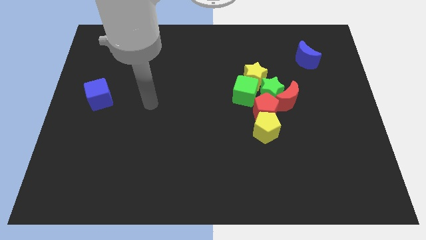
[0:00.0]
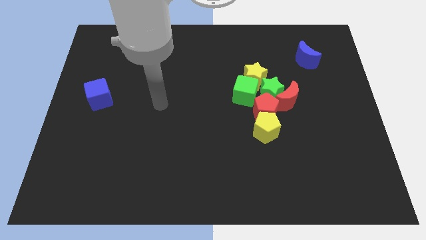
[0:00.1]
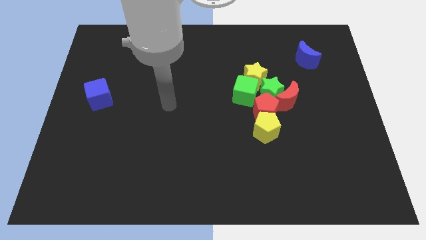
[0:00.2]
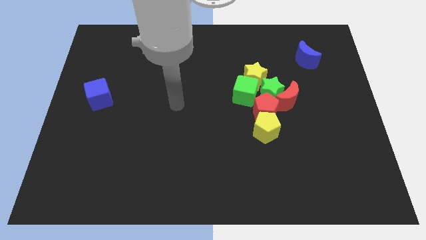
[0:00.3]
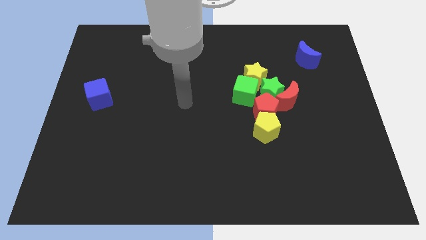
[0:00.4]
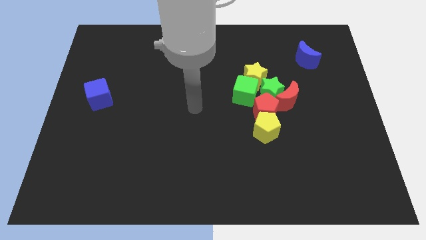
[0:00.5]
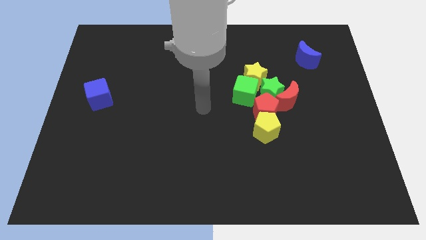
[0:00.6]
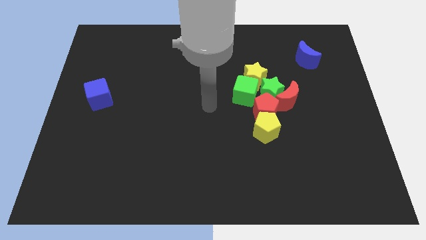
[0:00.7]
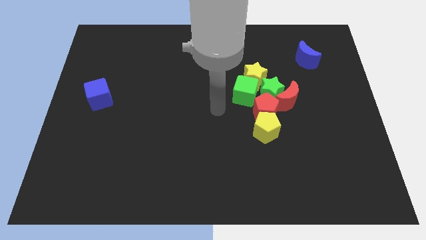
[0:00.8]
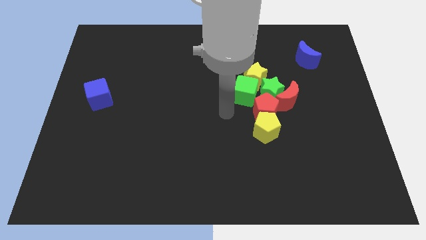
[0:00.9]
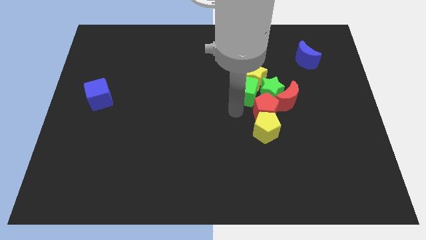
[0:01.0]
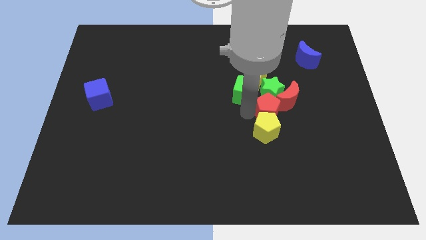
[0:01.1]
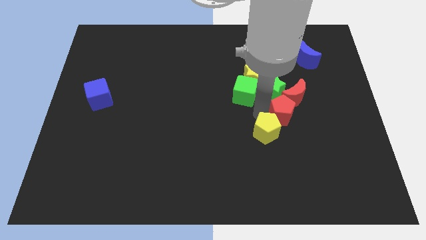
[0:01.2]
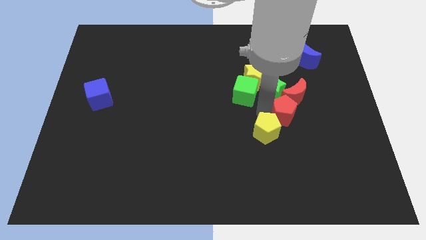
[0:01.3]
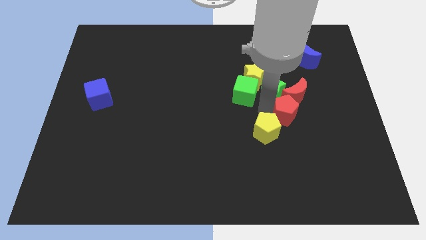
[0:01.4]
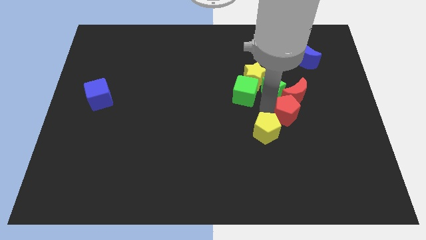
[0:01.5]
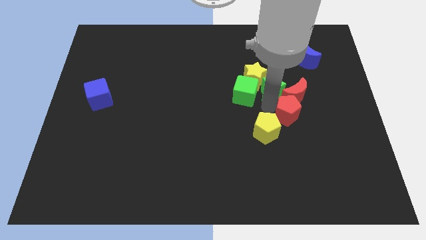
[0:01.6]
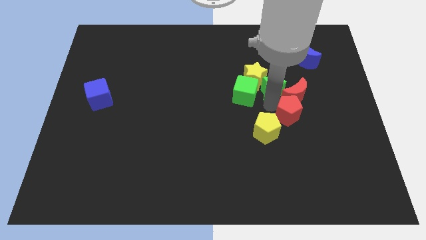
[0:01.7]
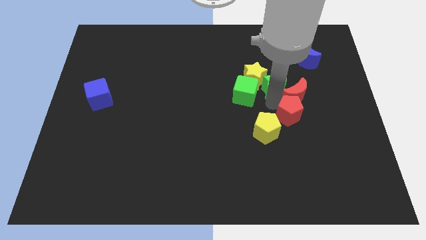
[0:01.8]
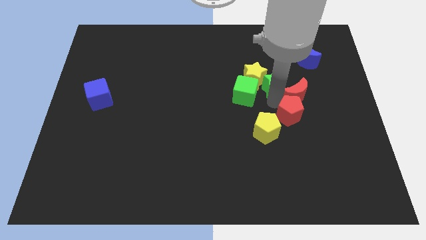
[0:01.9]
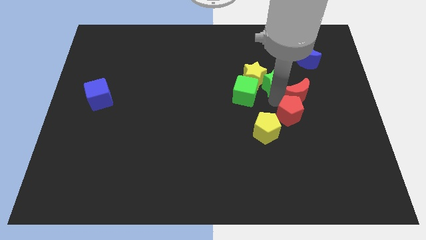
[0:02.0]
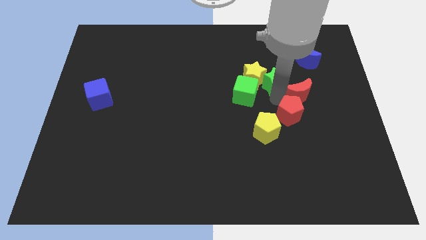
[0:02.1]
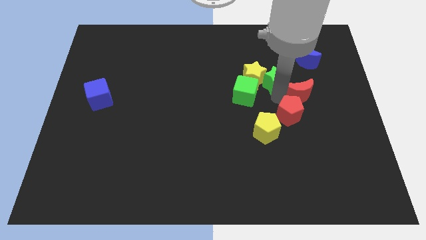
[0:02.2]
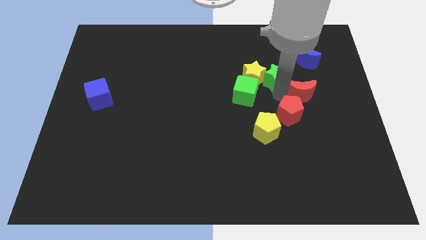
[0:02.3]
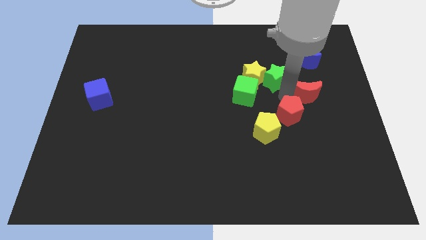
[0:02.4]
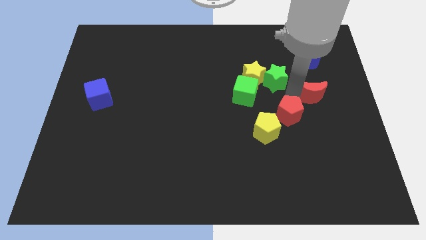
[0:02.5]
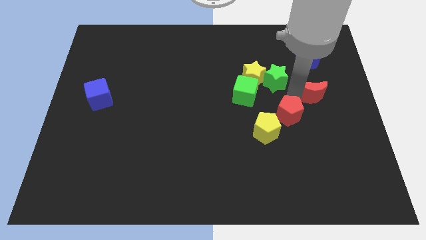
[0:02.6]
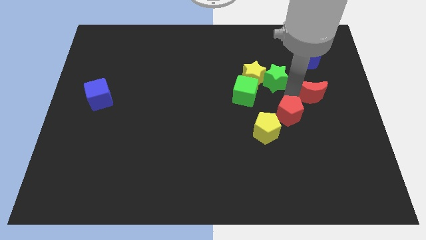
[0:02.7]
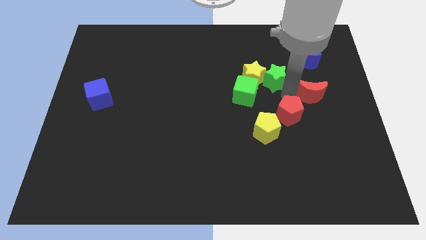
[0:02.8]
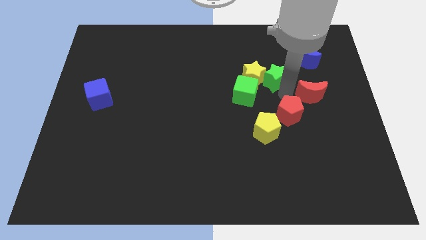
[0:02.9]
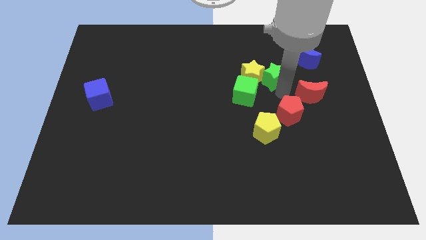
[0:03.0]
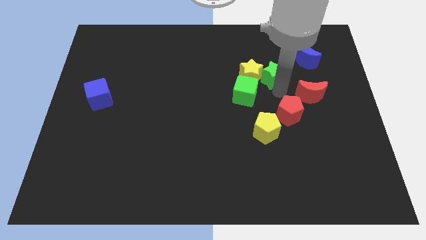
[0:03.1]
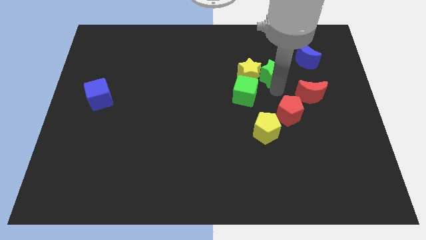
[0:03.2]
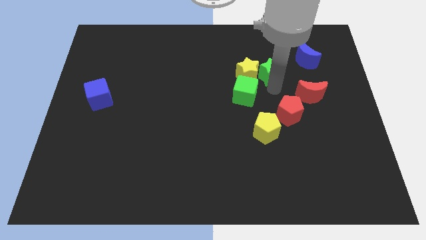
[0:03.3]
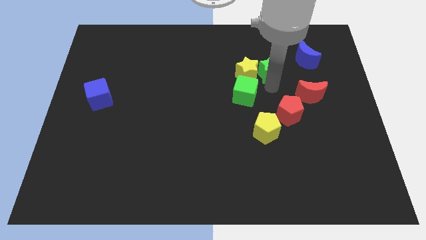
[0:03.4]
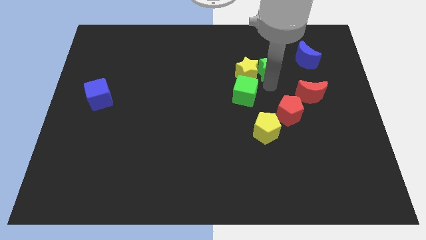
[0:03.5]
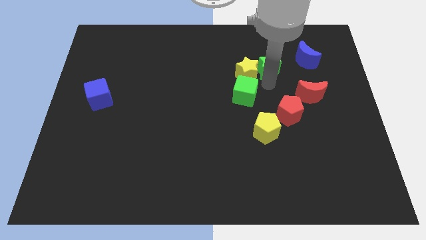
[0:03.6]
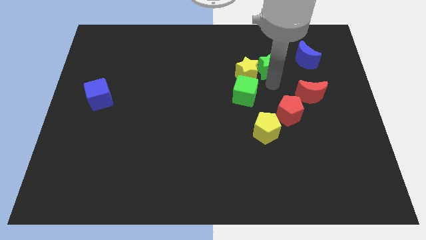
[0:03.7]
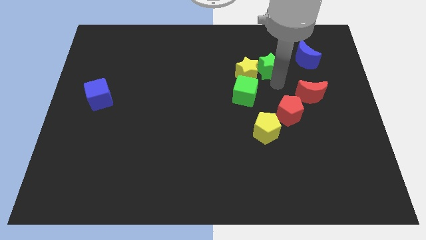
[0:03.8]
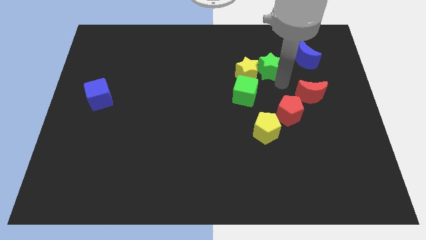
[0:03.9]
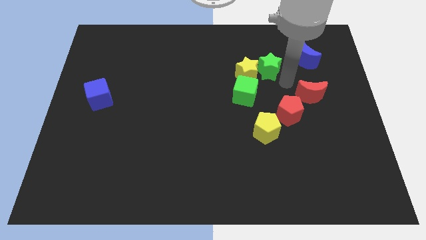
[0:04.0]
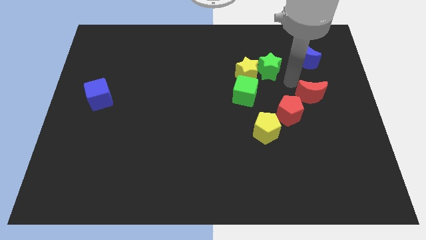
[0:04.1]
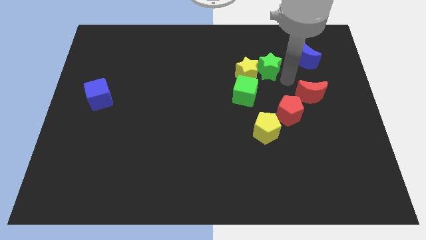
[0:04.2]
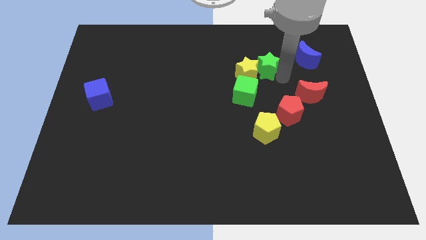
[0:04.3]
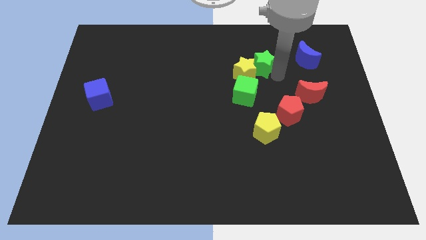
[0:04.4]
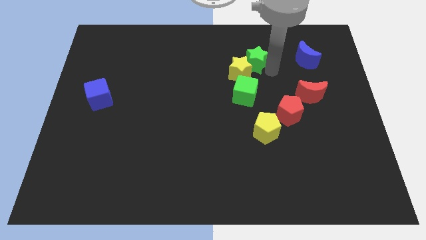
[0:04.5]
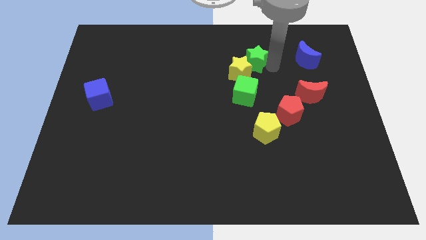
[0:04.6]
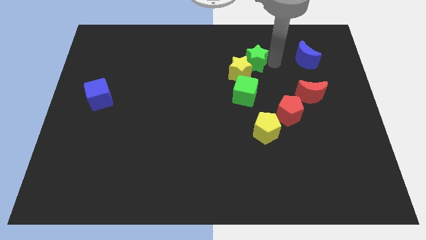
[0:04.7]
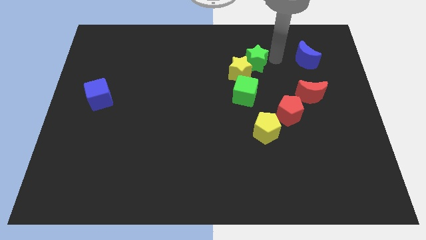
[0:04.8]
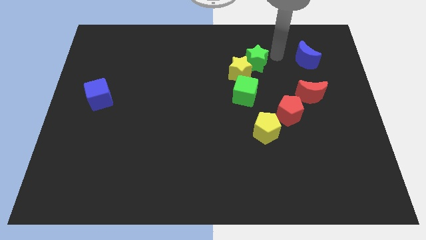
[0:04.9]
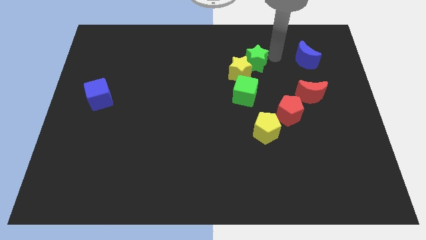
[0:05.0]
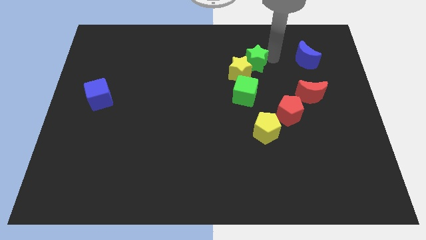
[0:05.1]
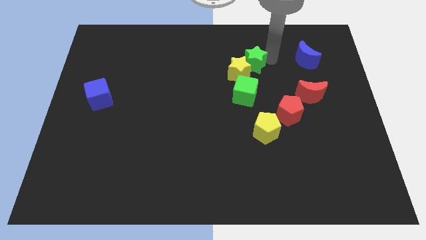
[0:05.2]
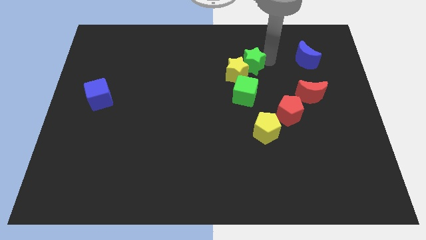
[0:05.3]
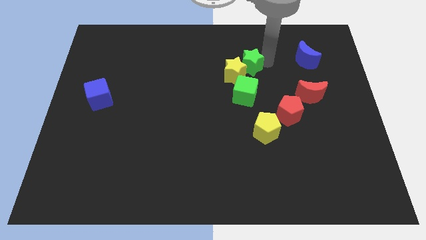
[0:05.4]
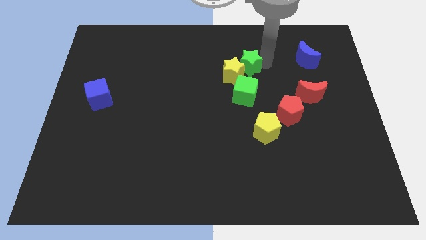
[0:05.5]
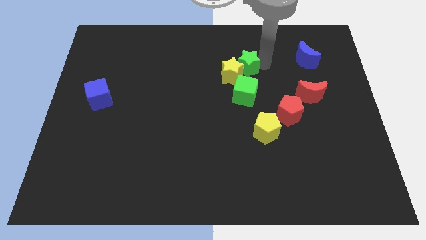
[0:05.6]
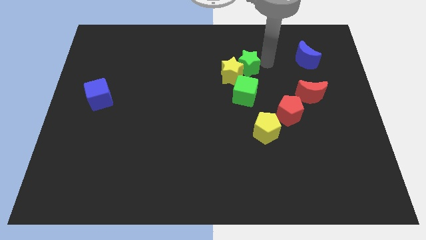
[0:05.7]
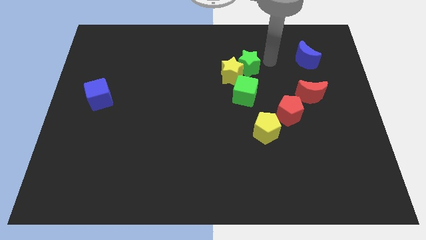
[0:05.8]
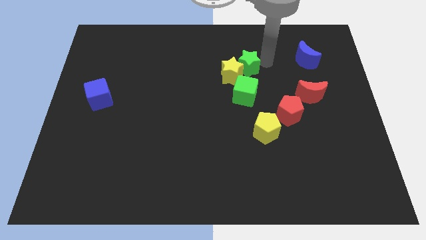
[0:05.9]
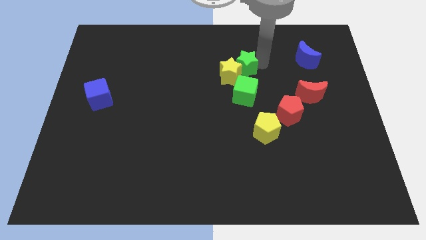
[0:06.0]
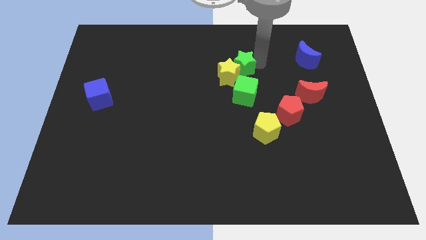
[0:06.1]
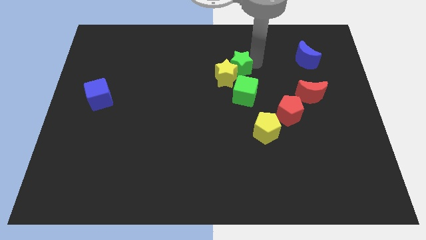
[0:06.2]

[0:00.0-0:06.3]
put the green star to the center

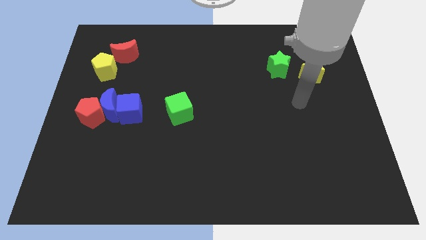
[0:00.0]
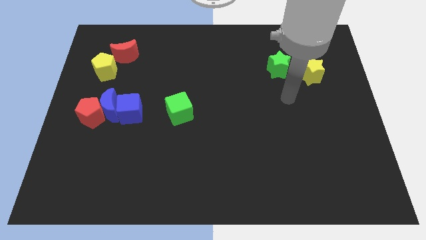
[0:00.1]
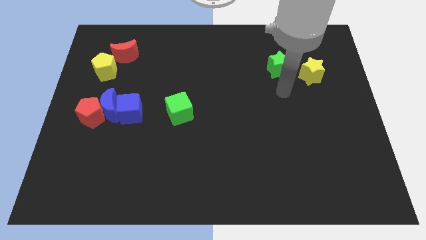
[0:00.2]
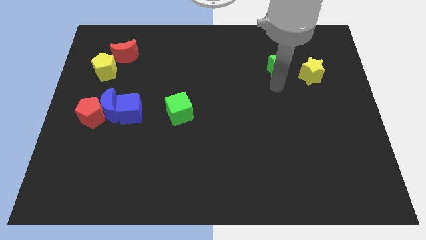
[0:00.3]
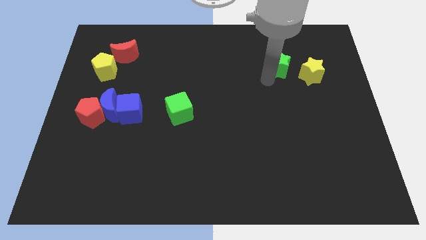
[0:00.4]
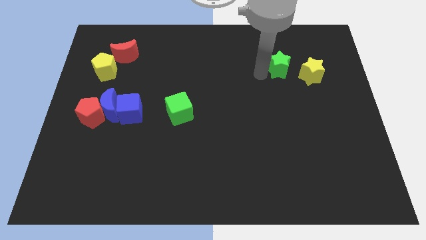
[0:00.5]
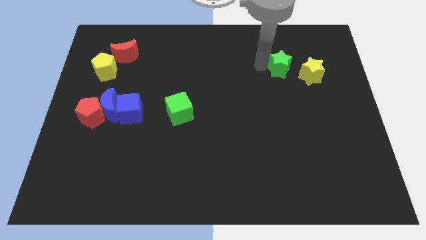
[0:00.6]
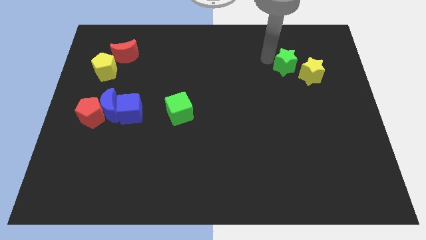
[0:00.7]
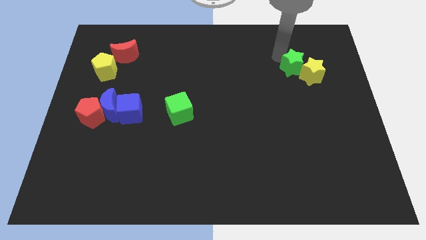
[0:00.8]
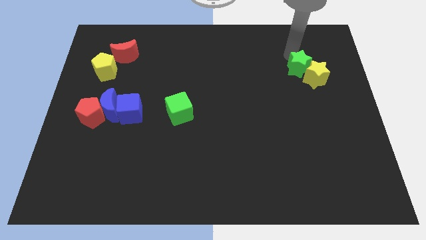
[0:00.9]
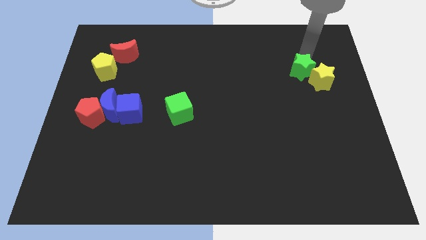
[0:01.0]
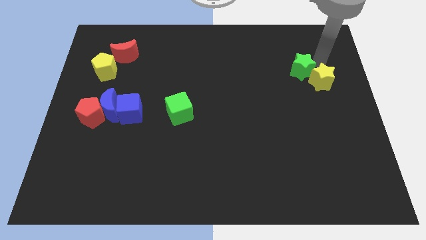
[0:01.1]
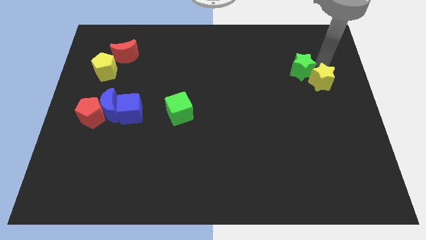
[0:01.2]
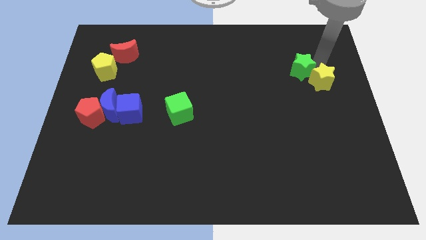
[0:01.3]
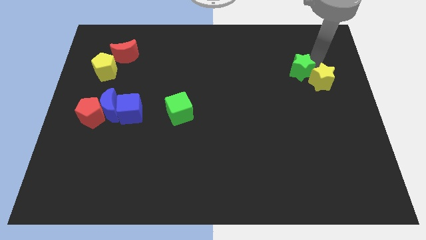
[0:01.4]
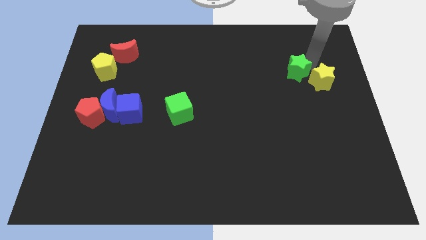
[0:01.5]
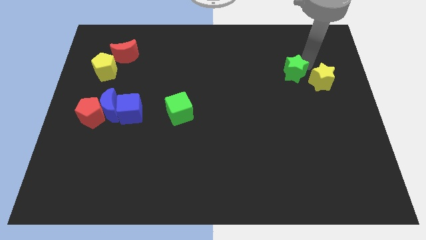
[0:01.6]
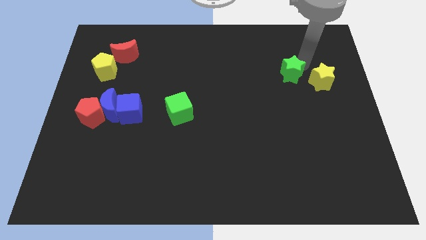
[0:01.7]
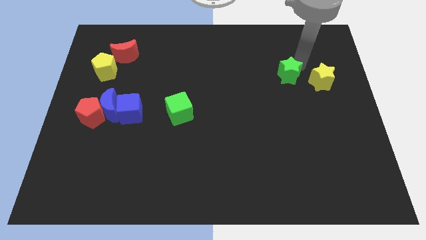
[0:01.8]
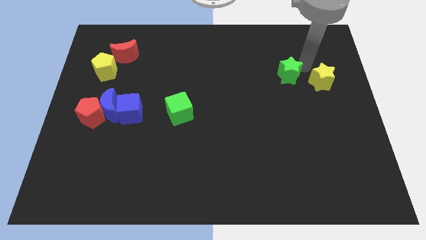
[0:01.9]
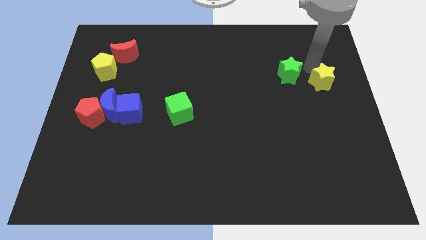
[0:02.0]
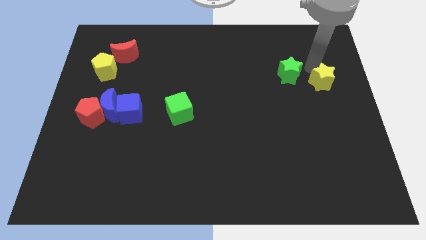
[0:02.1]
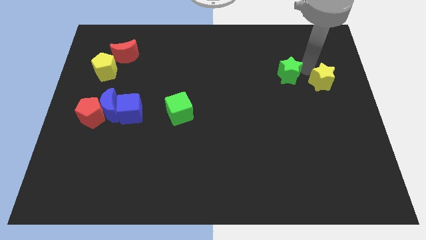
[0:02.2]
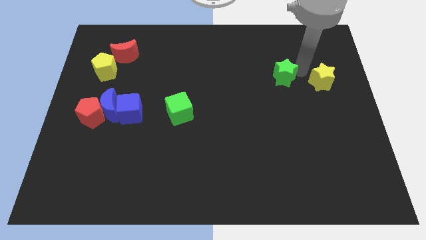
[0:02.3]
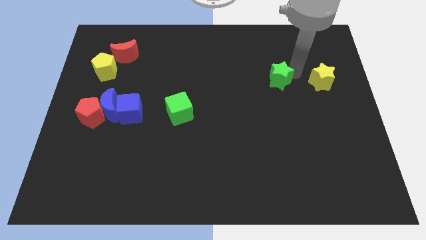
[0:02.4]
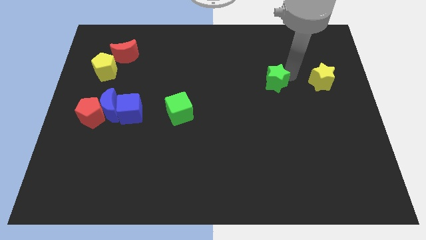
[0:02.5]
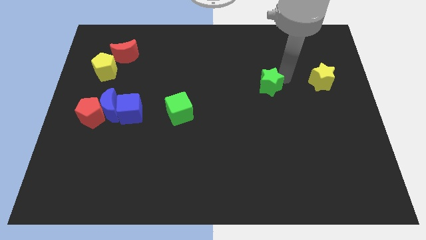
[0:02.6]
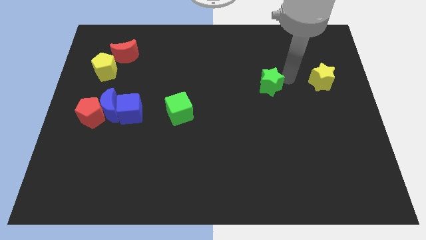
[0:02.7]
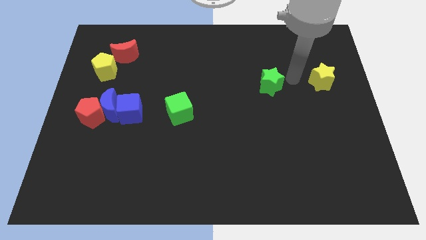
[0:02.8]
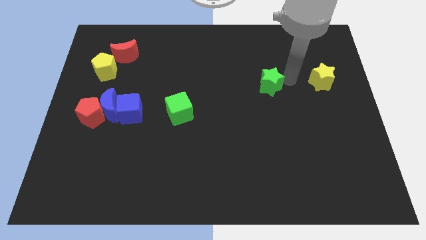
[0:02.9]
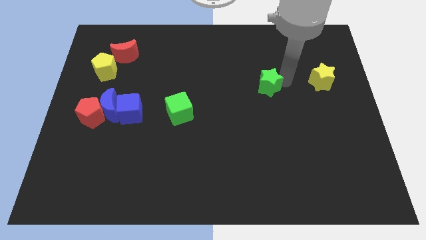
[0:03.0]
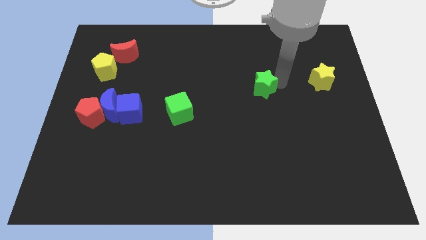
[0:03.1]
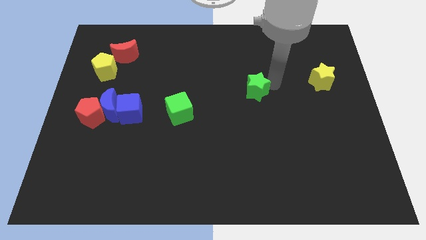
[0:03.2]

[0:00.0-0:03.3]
put the green star to the middle of the board
